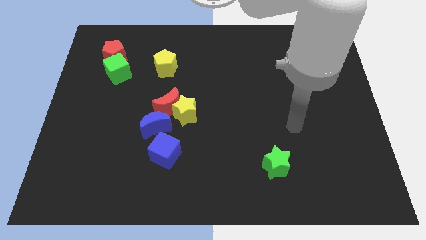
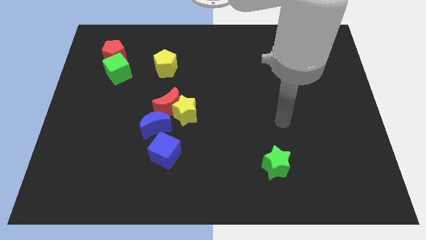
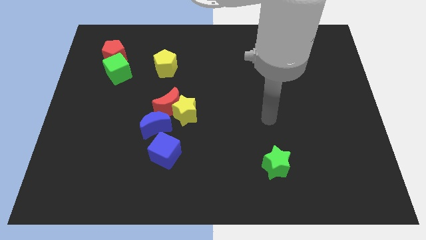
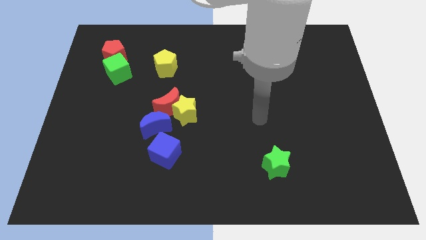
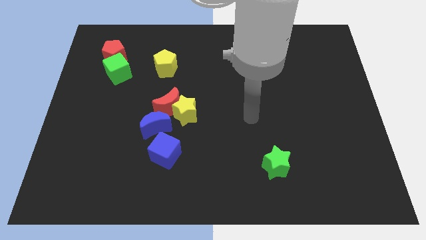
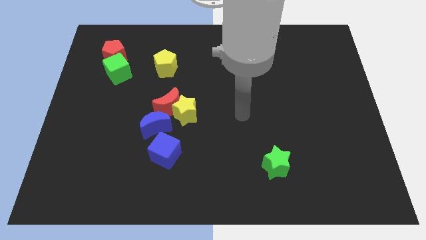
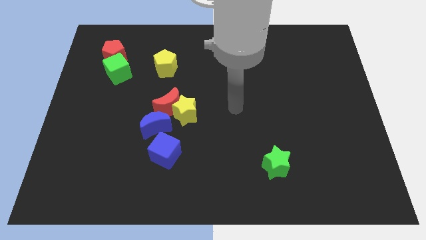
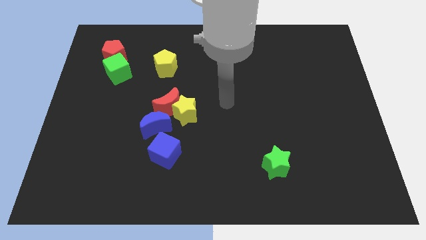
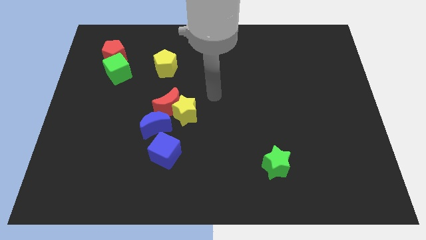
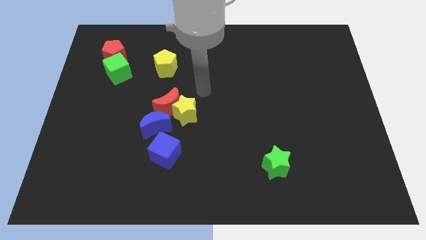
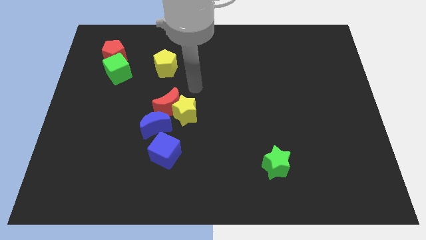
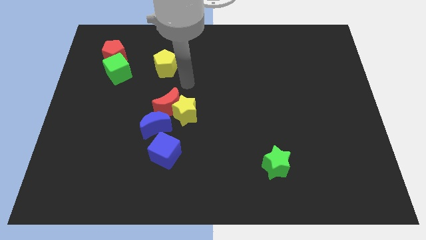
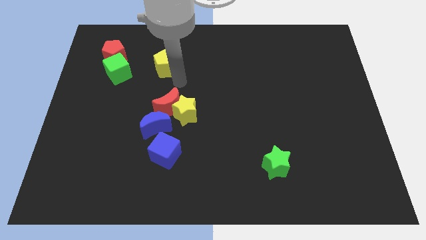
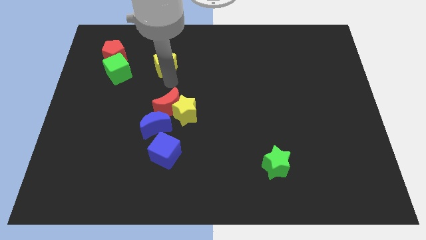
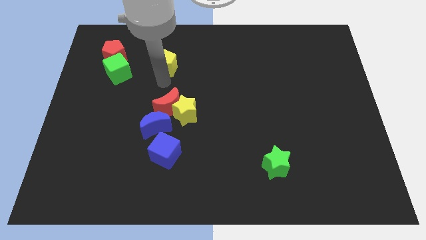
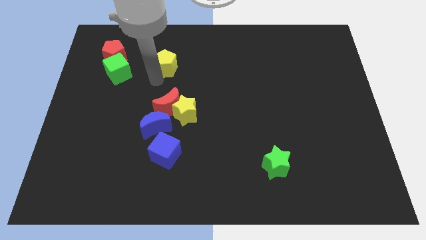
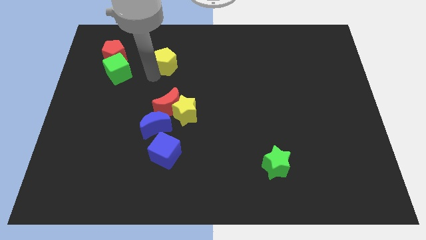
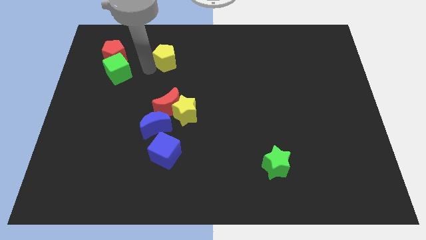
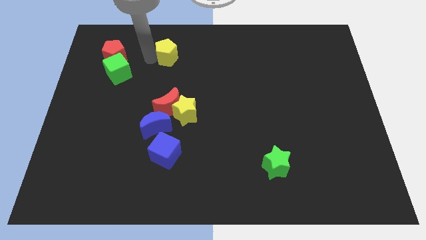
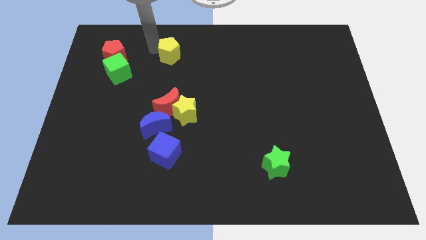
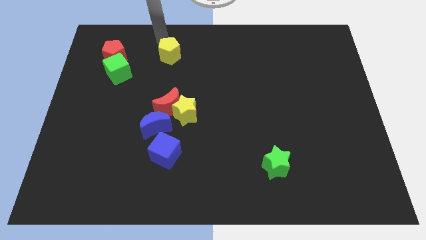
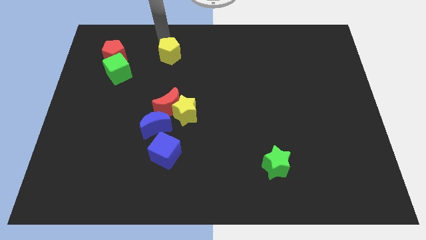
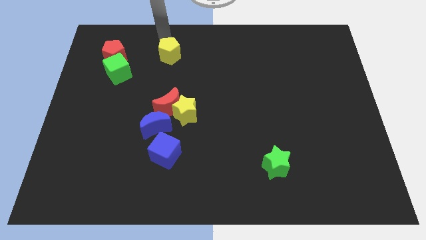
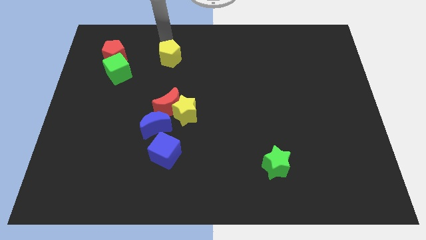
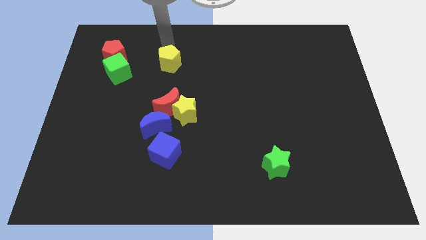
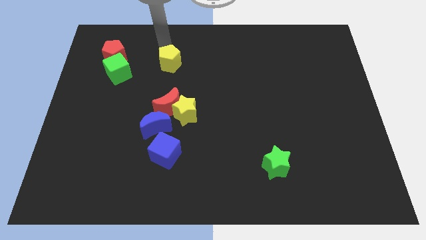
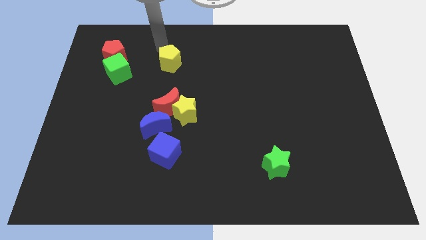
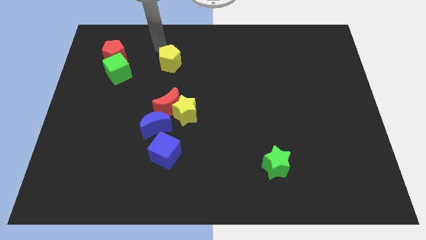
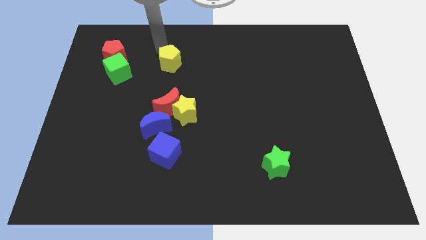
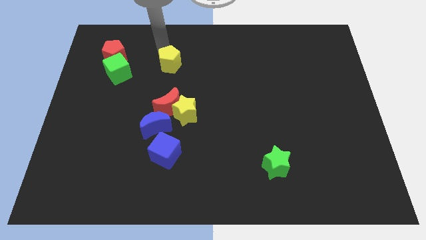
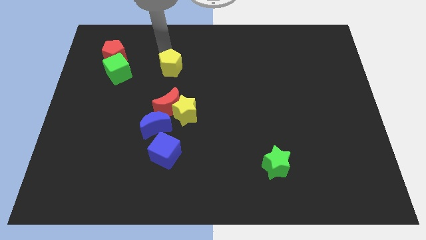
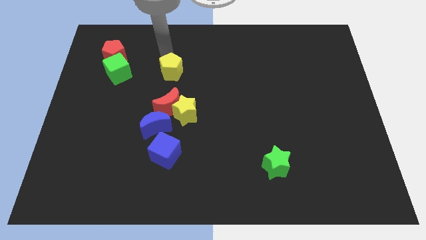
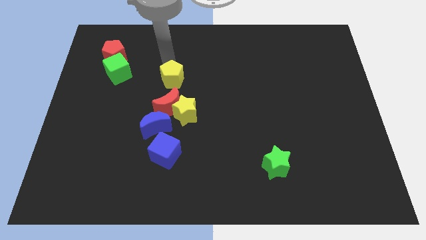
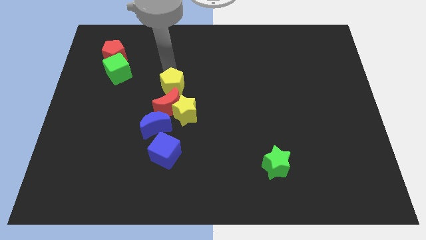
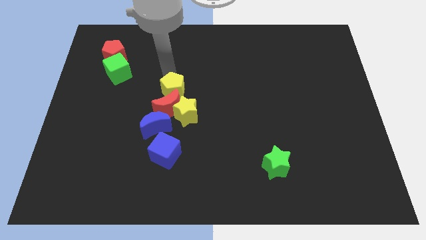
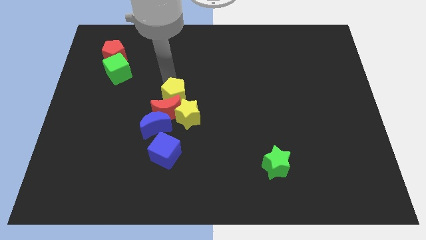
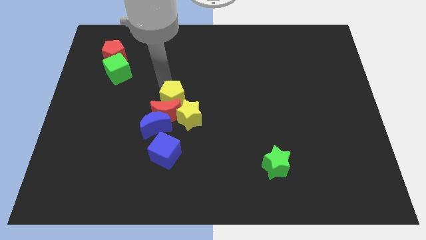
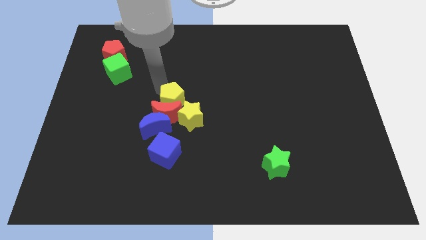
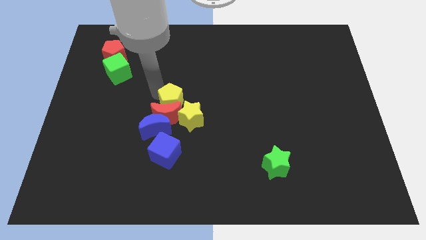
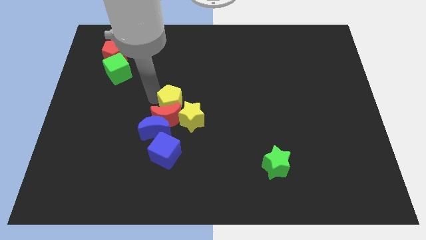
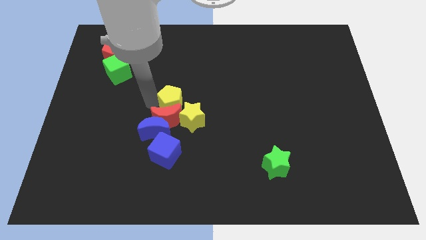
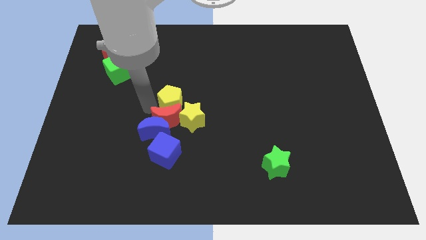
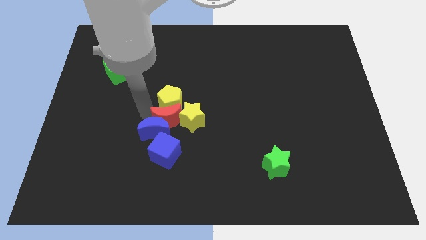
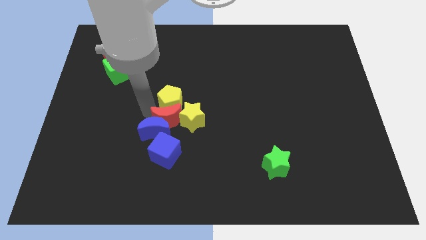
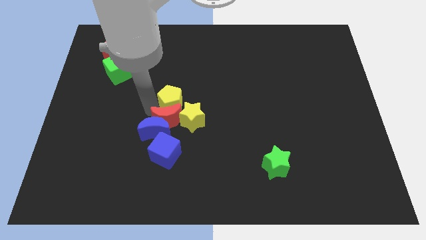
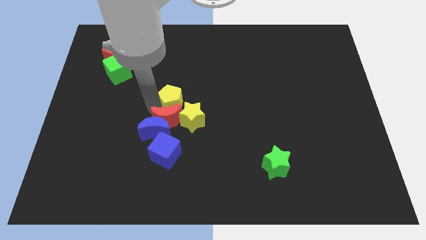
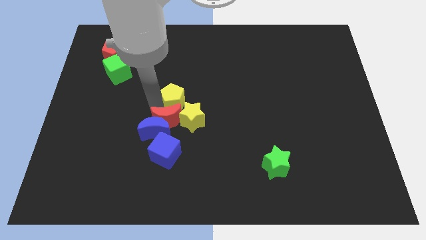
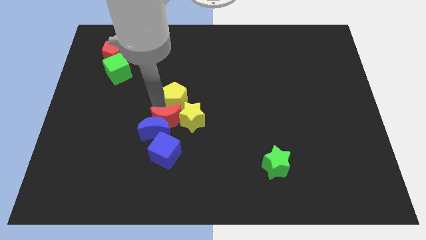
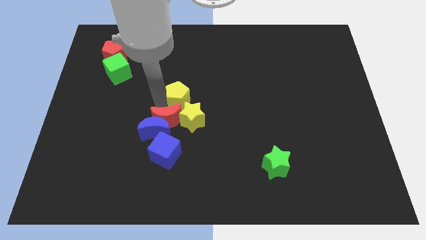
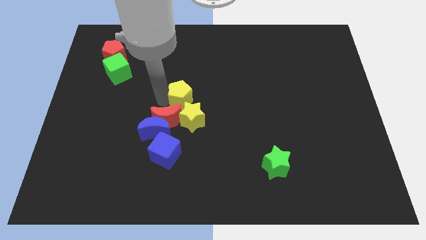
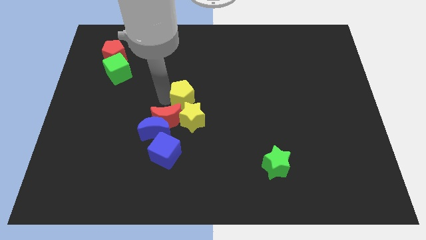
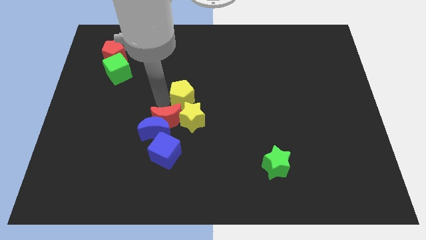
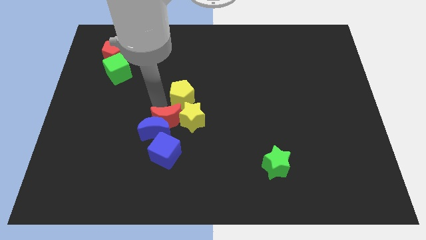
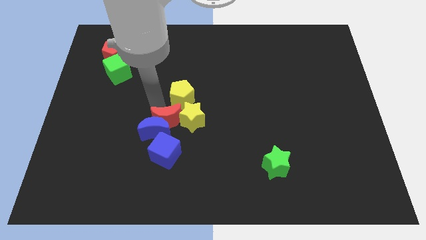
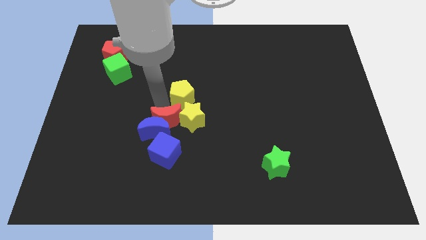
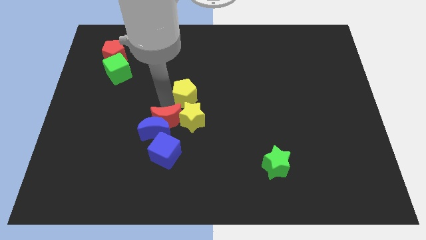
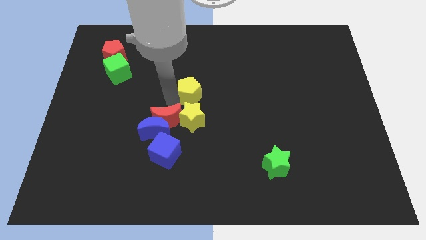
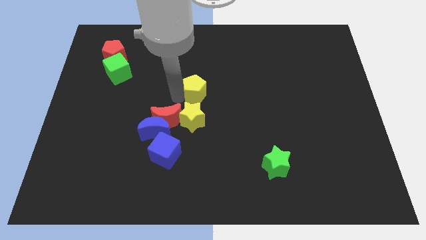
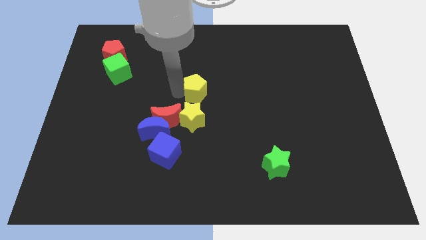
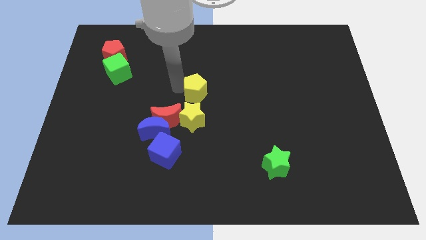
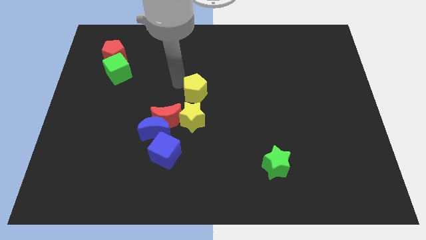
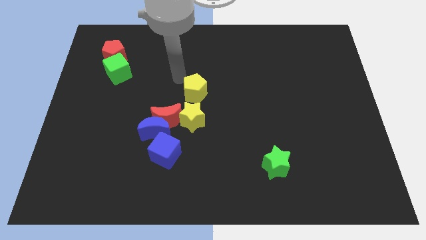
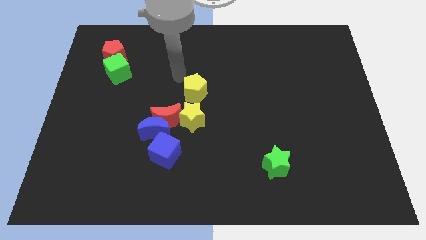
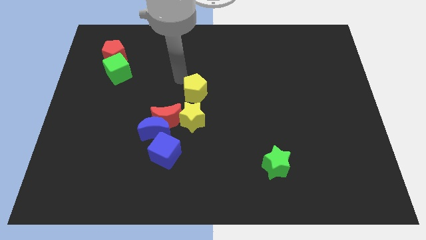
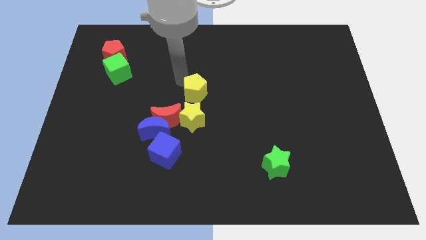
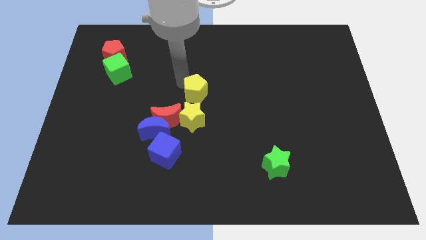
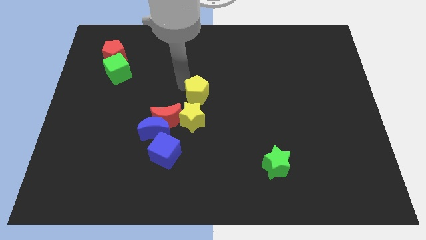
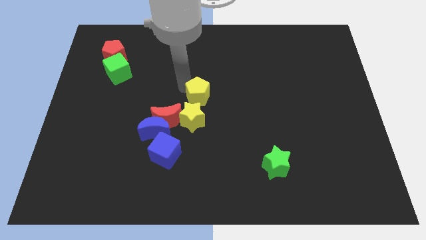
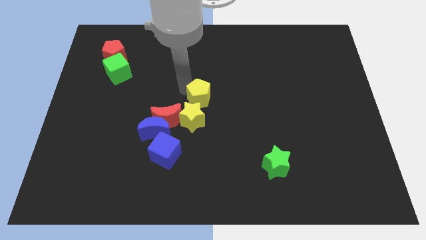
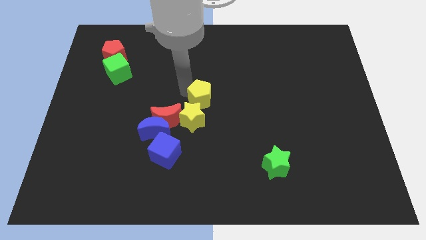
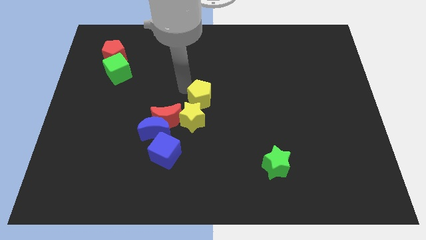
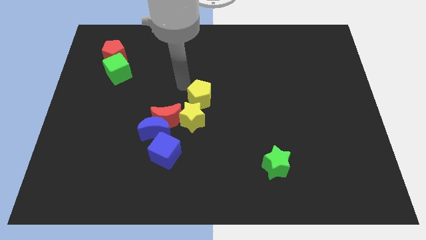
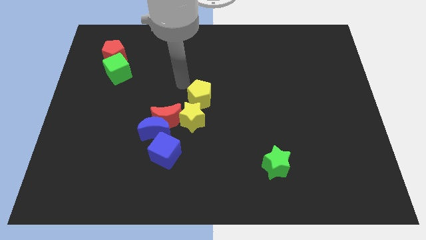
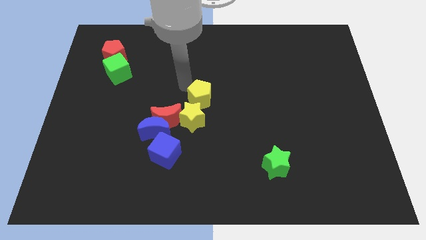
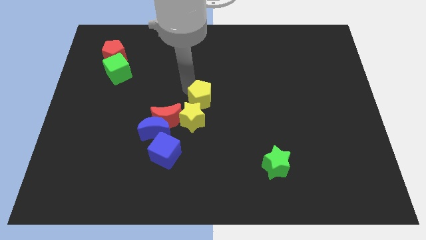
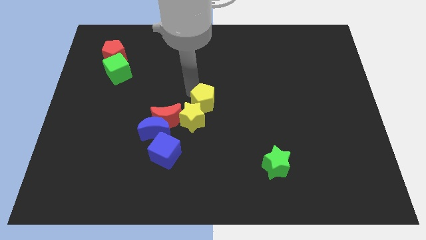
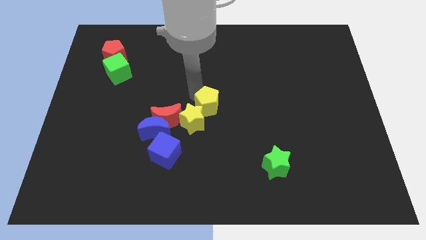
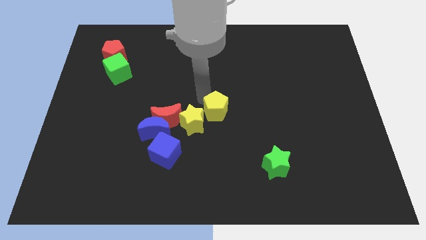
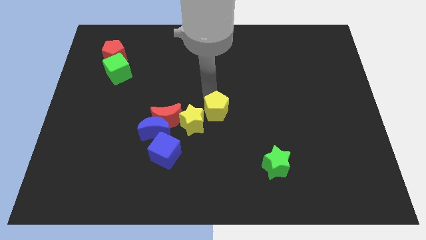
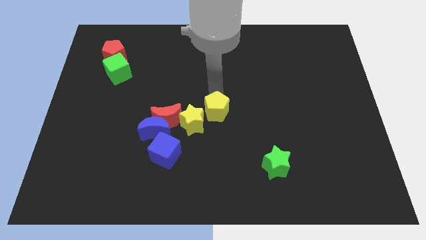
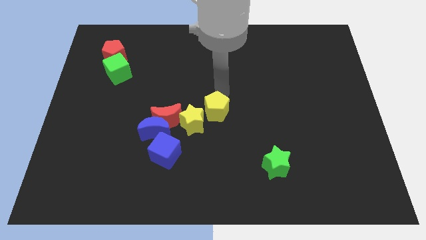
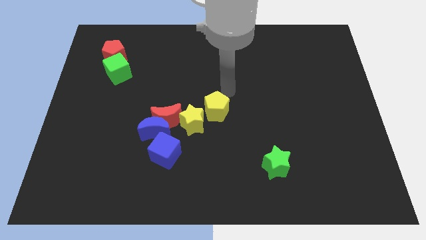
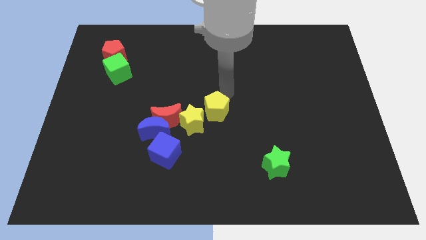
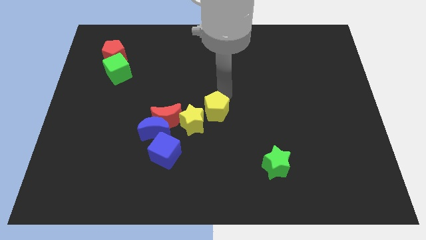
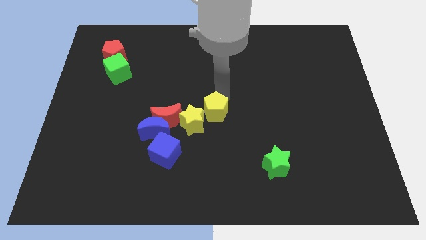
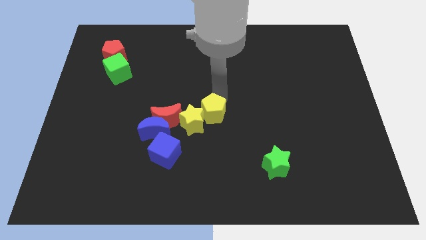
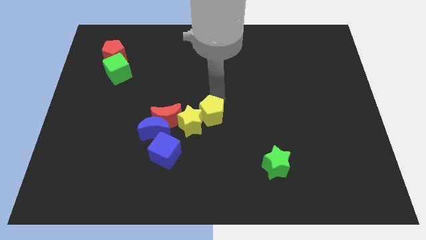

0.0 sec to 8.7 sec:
slide the yellow pentagon just right of the blue moon
